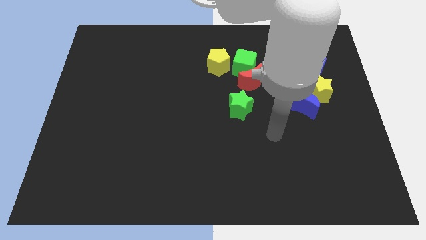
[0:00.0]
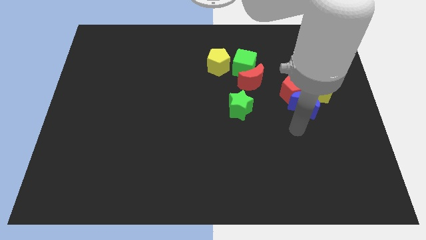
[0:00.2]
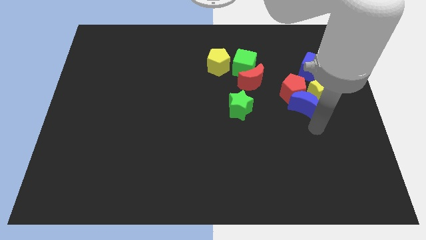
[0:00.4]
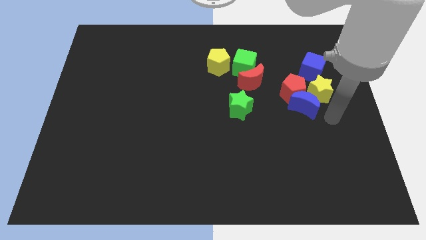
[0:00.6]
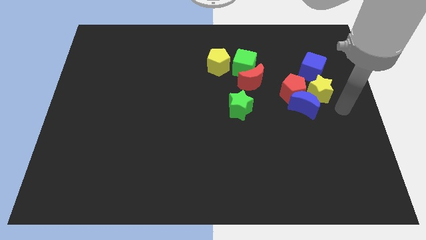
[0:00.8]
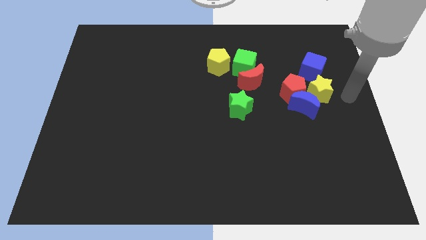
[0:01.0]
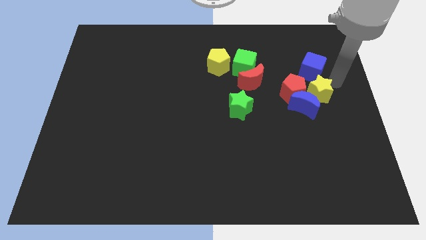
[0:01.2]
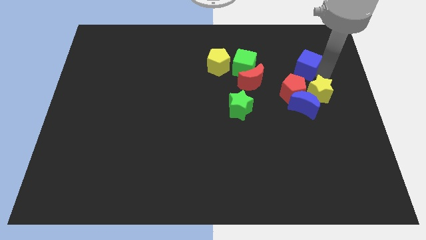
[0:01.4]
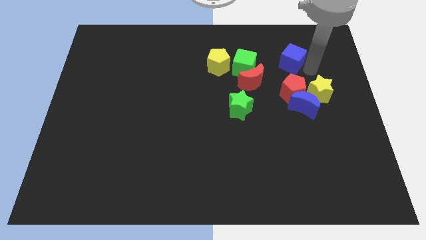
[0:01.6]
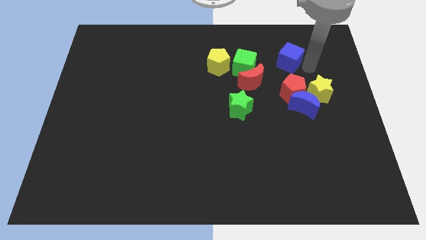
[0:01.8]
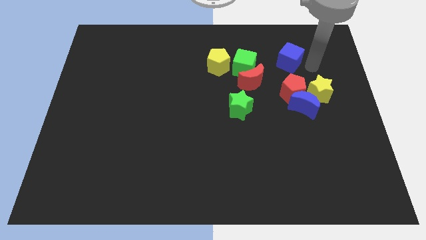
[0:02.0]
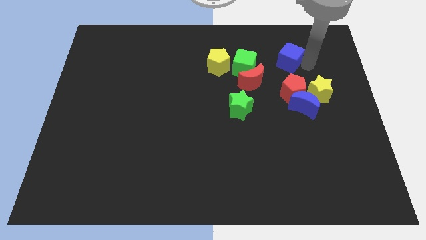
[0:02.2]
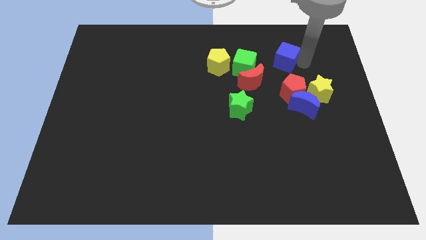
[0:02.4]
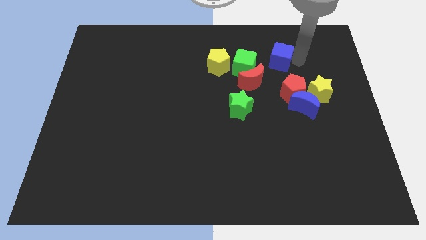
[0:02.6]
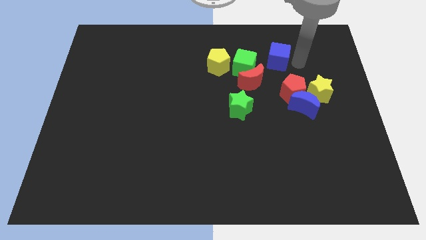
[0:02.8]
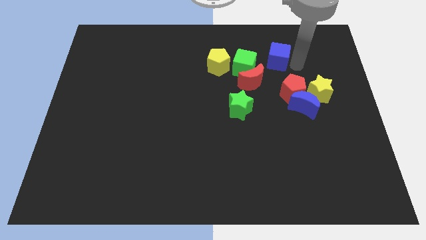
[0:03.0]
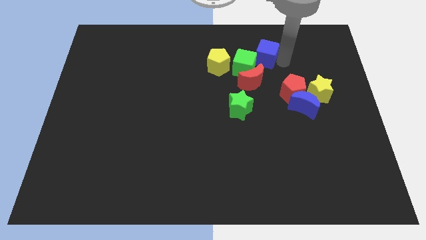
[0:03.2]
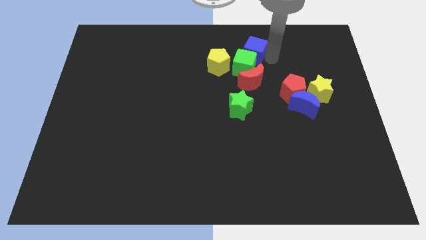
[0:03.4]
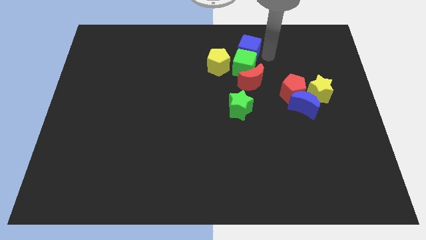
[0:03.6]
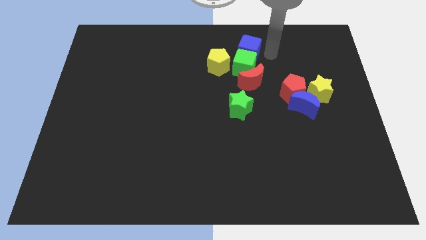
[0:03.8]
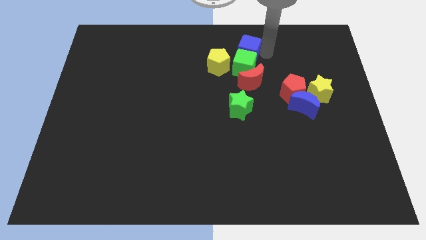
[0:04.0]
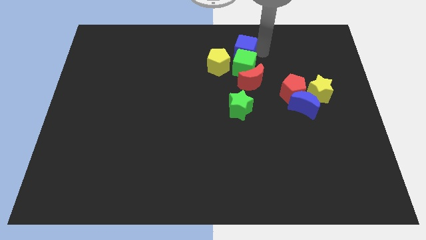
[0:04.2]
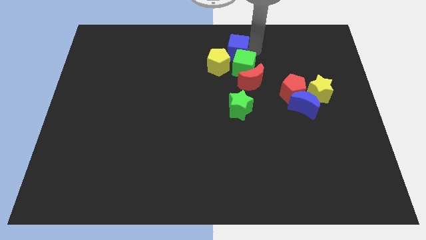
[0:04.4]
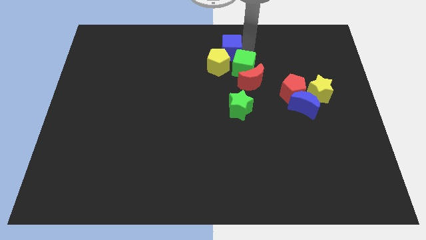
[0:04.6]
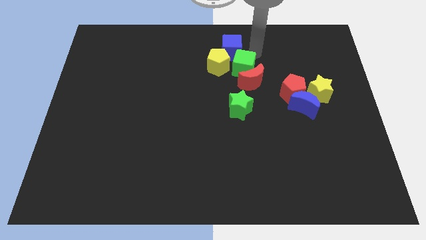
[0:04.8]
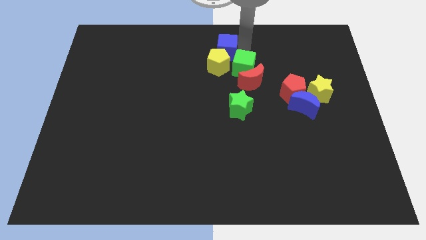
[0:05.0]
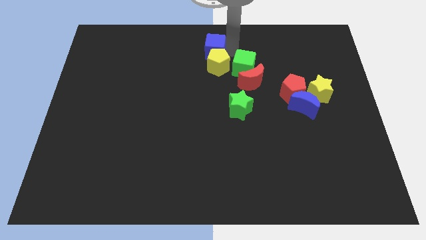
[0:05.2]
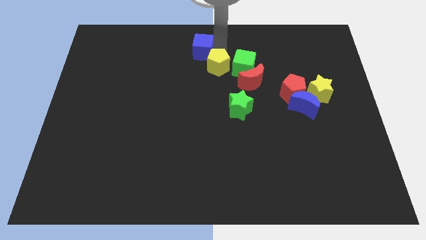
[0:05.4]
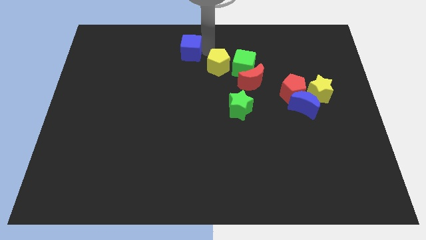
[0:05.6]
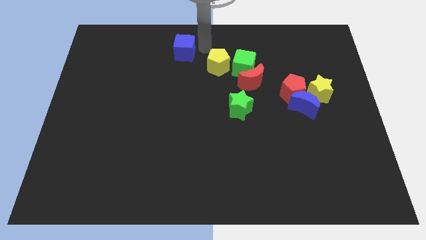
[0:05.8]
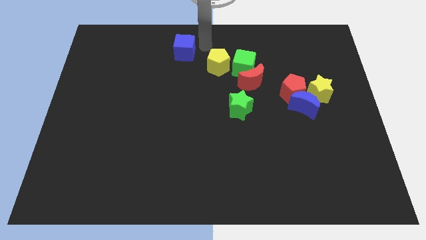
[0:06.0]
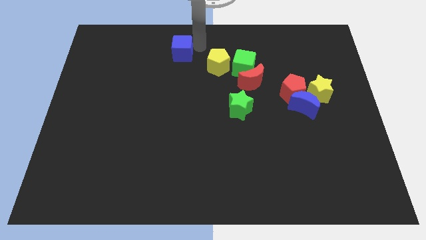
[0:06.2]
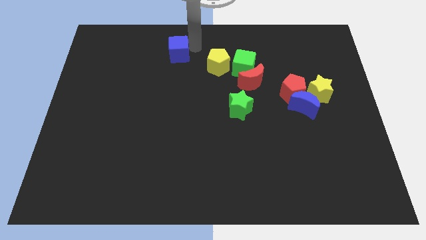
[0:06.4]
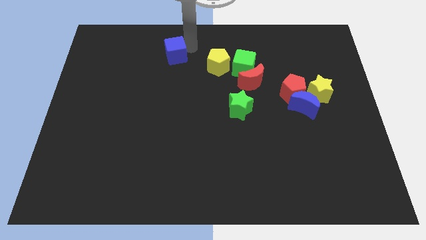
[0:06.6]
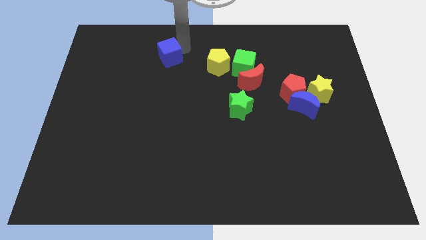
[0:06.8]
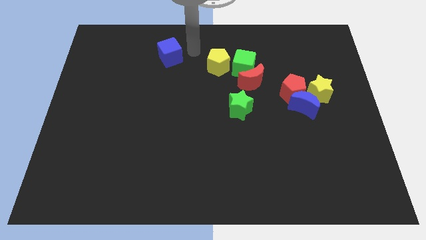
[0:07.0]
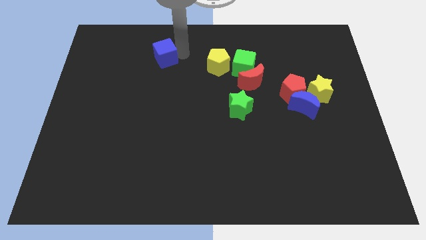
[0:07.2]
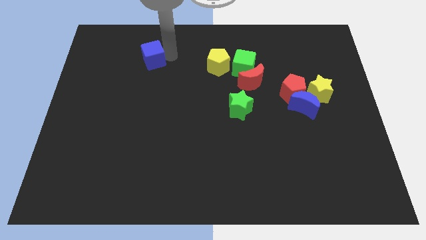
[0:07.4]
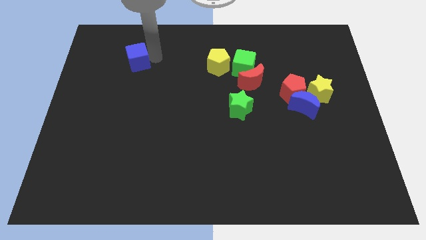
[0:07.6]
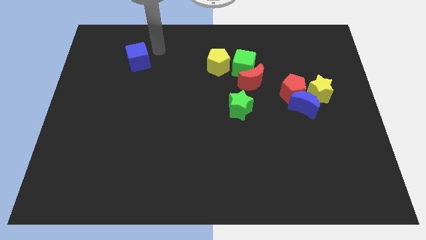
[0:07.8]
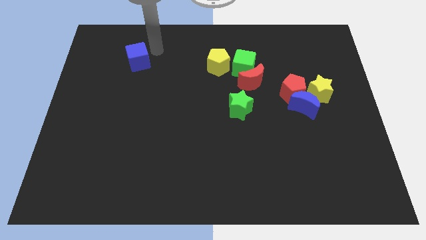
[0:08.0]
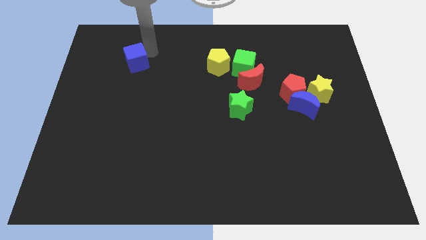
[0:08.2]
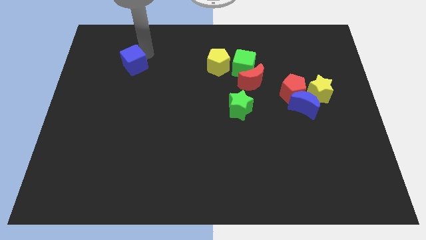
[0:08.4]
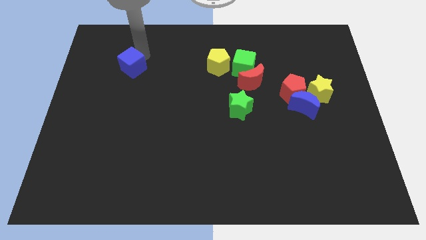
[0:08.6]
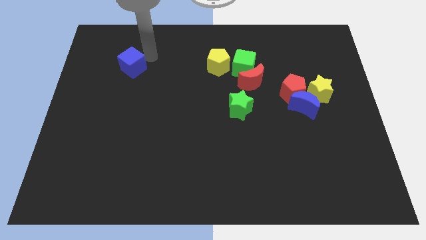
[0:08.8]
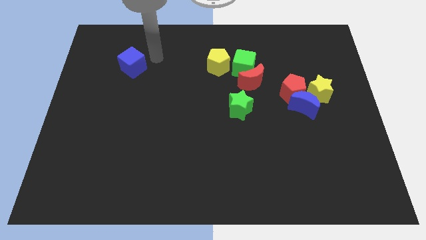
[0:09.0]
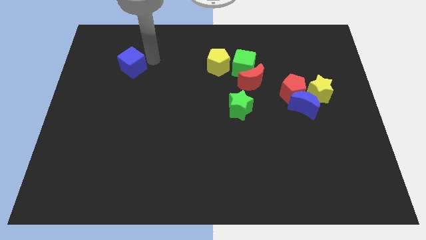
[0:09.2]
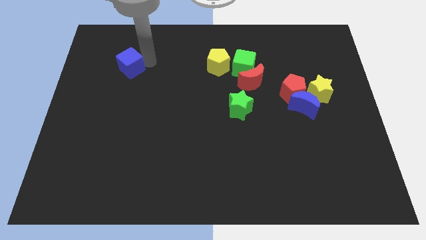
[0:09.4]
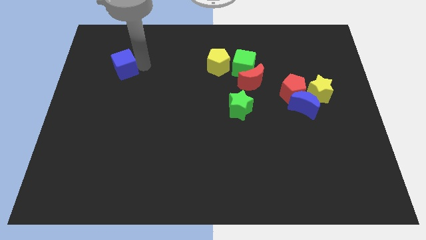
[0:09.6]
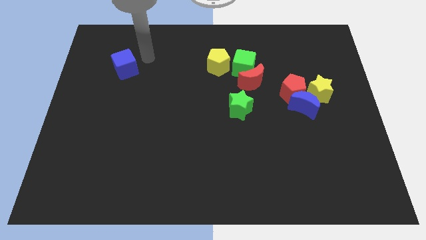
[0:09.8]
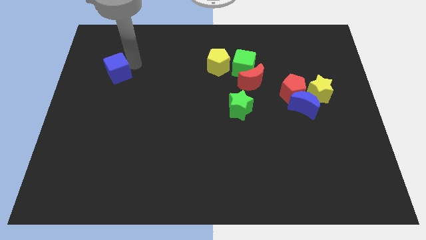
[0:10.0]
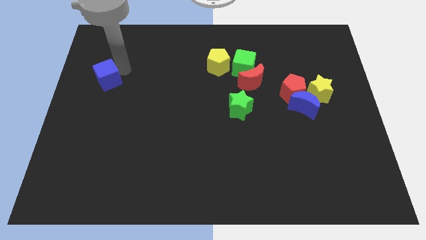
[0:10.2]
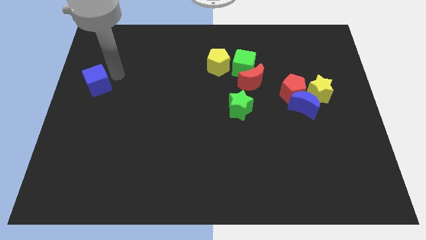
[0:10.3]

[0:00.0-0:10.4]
push the blue cube to the center left
